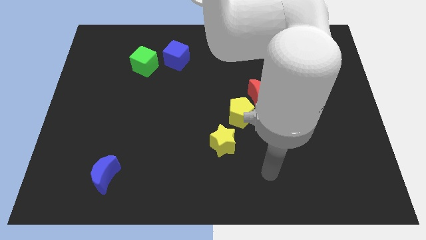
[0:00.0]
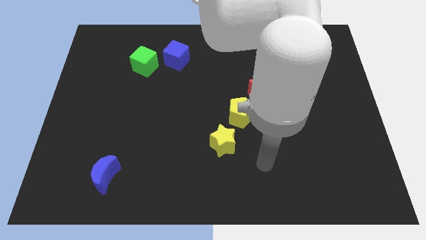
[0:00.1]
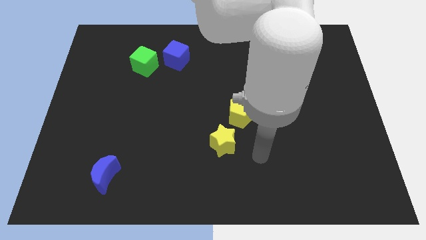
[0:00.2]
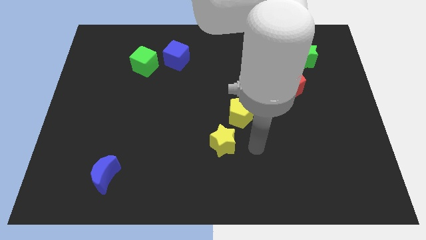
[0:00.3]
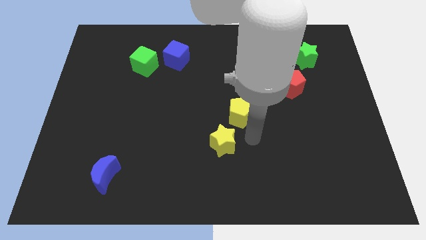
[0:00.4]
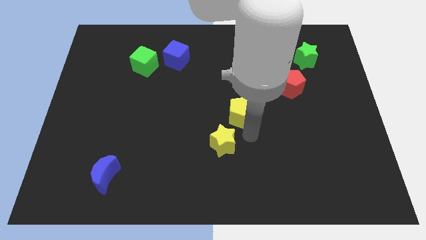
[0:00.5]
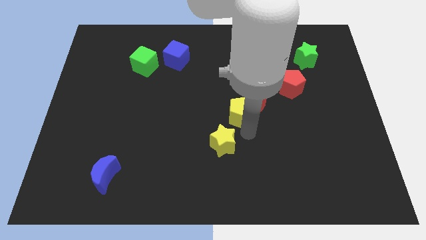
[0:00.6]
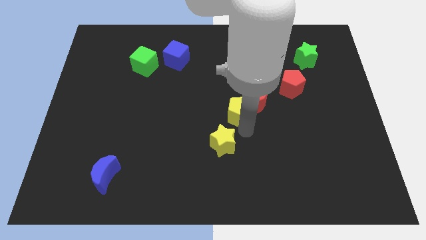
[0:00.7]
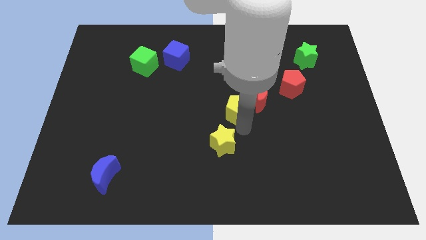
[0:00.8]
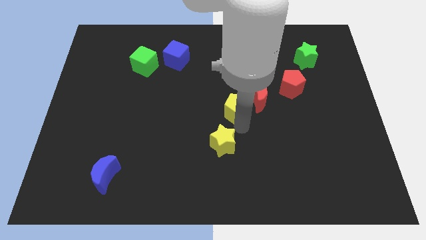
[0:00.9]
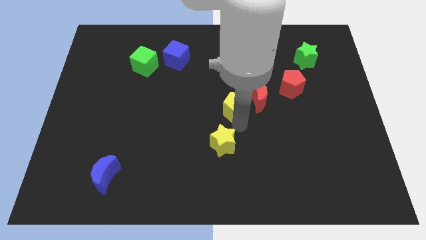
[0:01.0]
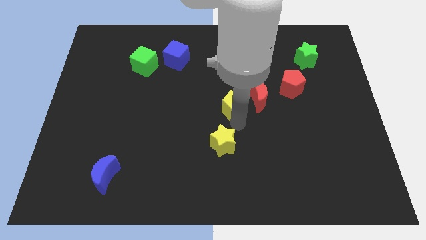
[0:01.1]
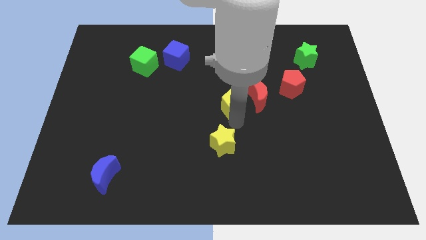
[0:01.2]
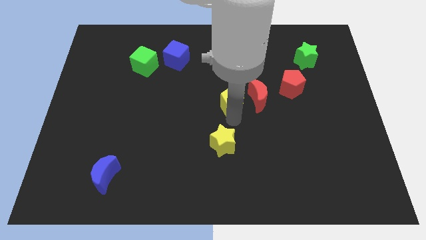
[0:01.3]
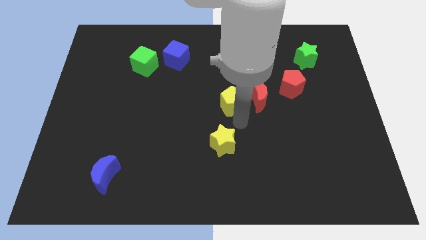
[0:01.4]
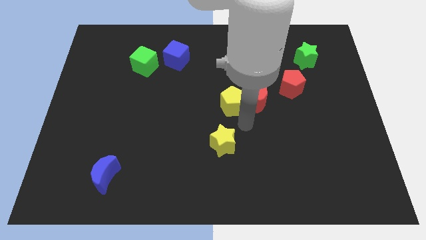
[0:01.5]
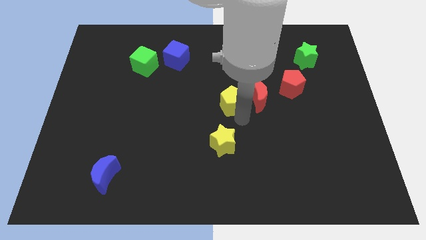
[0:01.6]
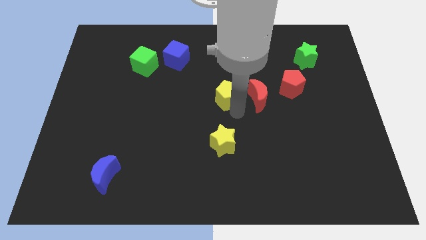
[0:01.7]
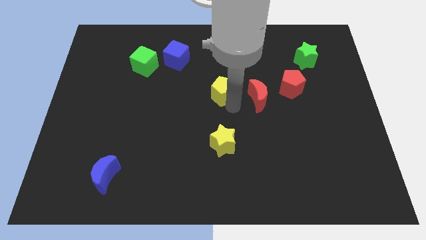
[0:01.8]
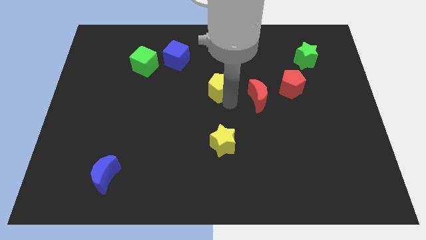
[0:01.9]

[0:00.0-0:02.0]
pull the yellow pentagon apart from the red moon and yellow star

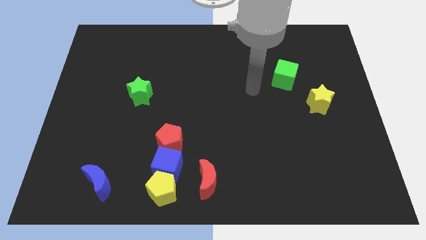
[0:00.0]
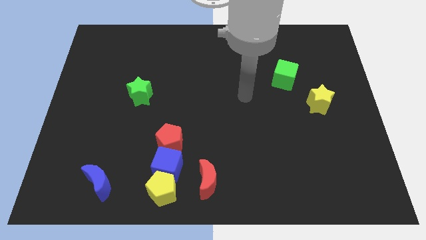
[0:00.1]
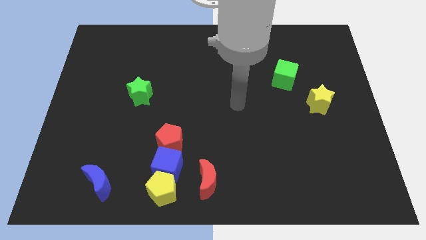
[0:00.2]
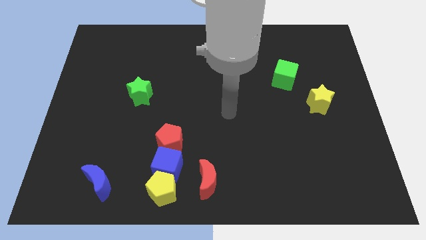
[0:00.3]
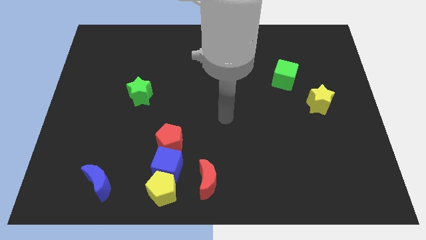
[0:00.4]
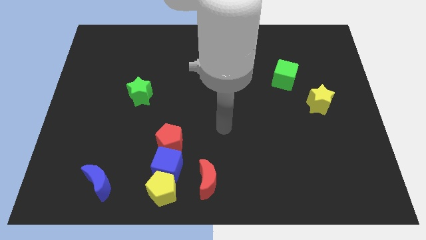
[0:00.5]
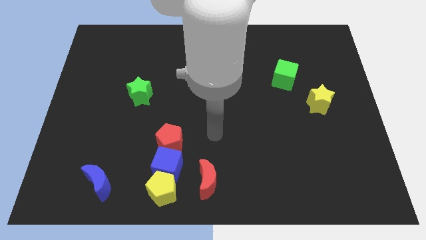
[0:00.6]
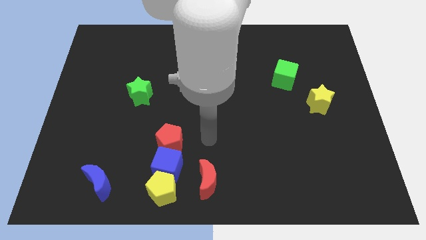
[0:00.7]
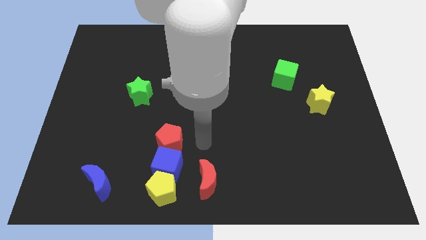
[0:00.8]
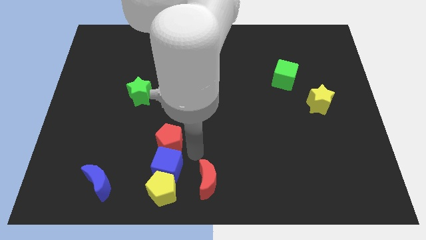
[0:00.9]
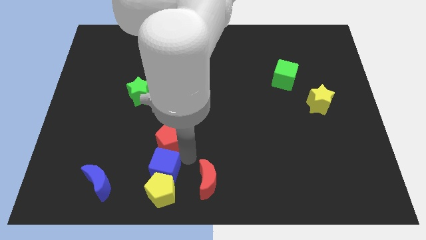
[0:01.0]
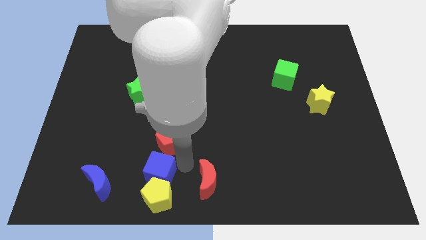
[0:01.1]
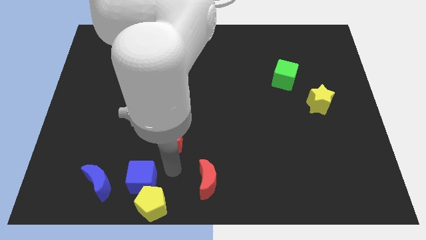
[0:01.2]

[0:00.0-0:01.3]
move the red pentagon away from the blue cube

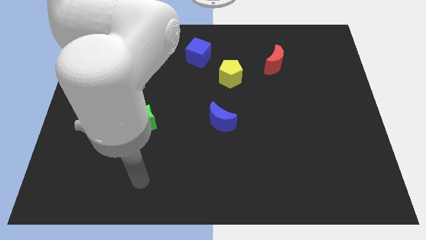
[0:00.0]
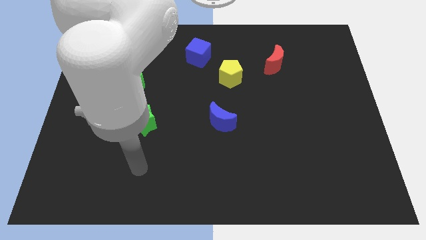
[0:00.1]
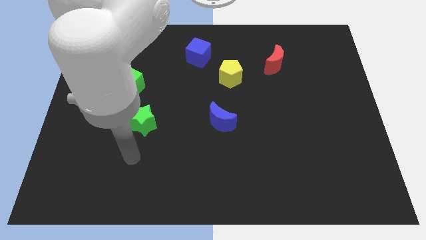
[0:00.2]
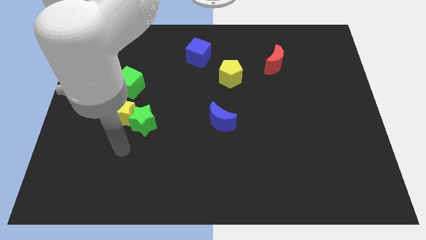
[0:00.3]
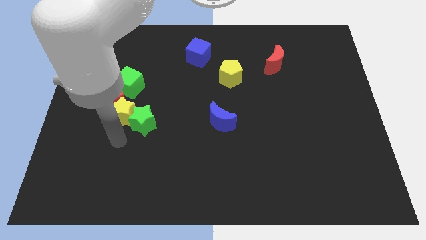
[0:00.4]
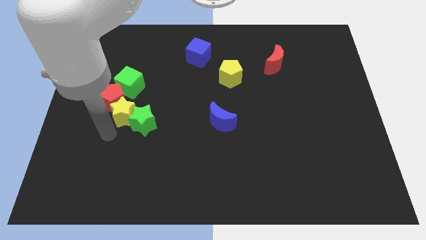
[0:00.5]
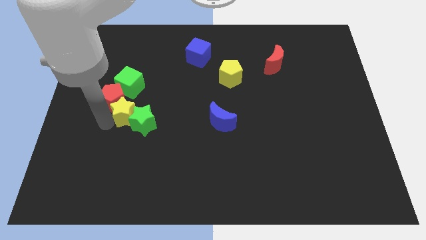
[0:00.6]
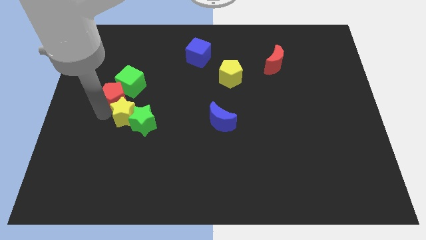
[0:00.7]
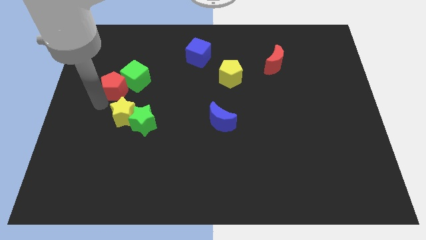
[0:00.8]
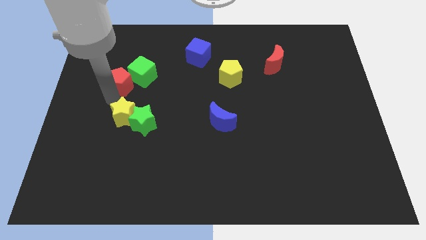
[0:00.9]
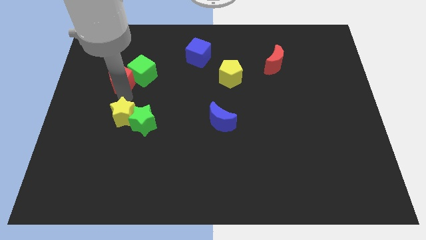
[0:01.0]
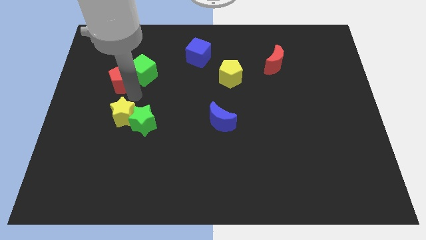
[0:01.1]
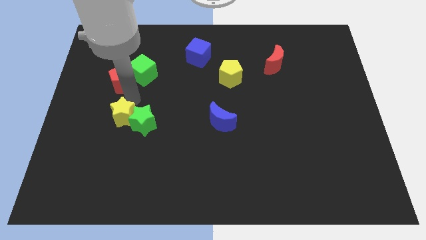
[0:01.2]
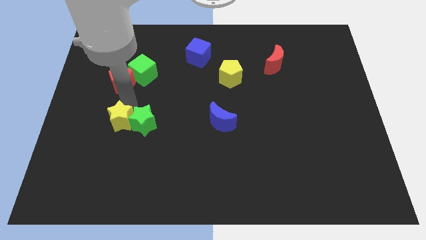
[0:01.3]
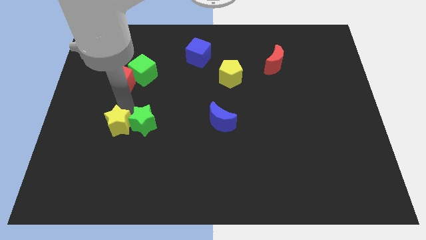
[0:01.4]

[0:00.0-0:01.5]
separate the yellow star from the group of blocks

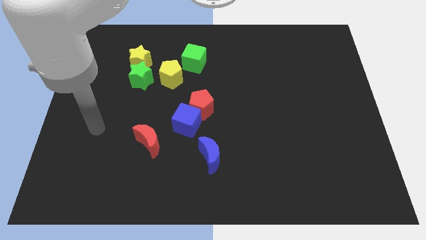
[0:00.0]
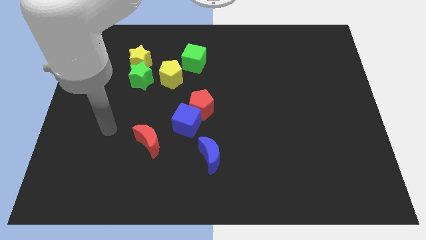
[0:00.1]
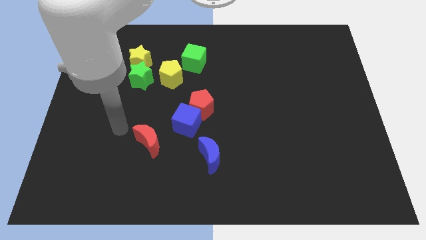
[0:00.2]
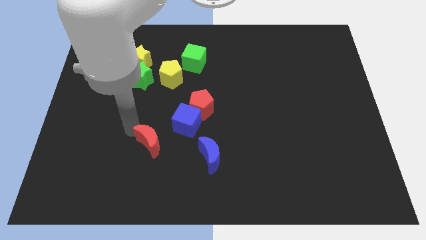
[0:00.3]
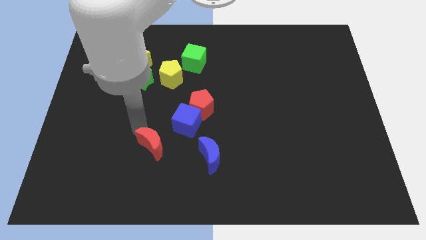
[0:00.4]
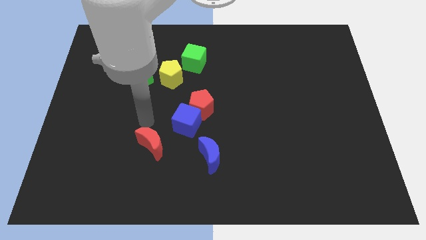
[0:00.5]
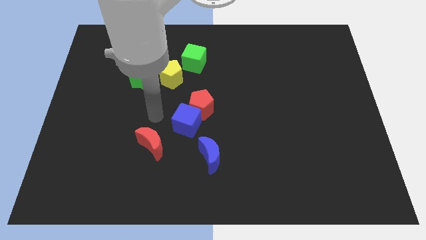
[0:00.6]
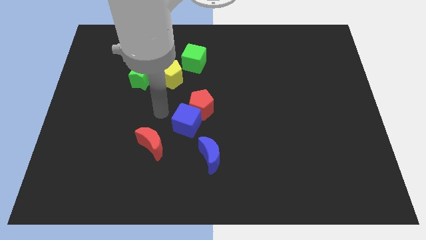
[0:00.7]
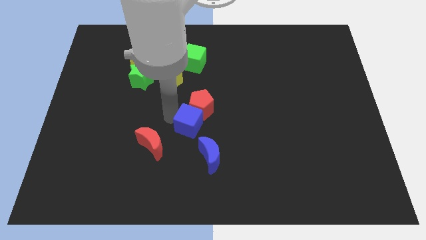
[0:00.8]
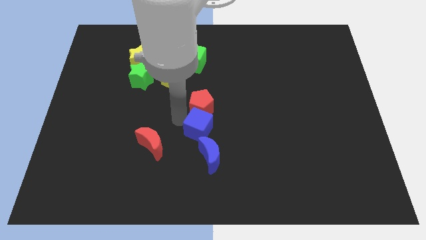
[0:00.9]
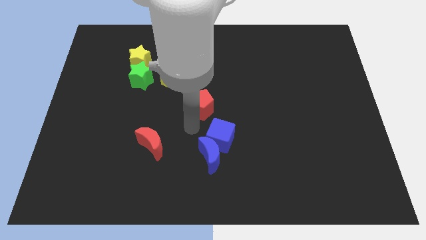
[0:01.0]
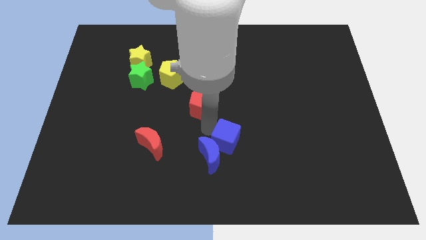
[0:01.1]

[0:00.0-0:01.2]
separate the red pentagon from the blue cube

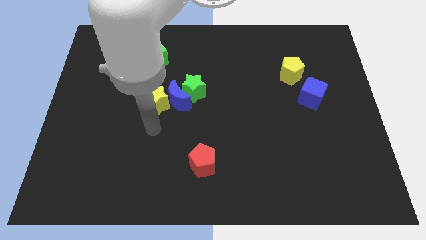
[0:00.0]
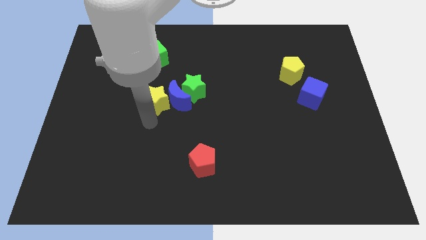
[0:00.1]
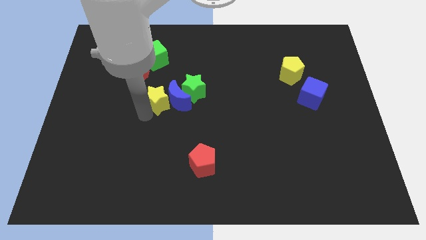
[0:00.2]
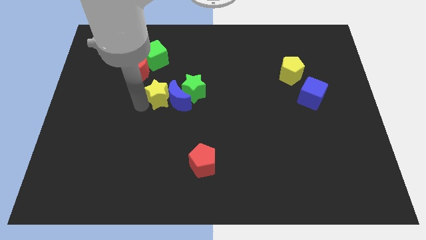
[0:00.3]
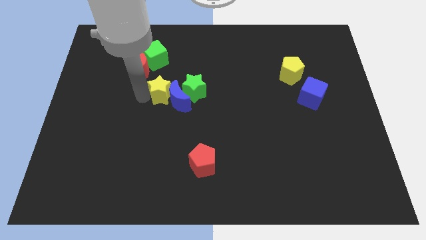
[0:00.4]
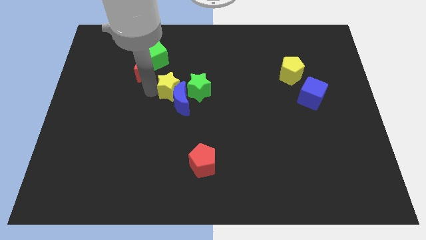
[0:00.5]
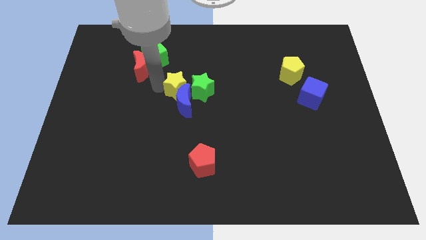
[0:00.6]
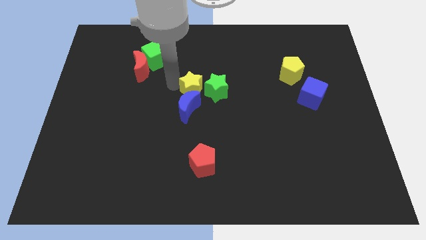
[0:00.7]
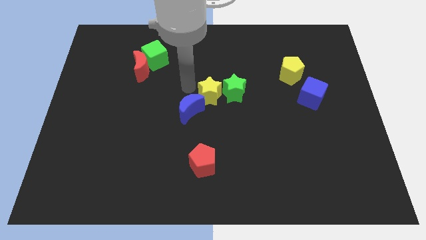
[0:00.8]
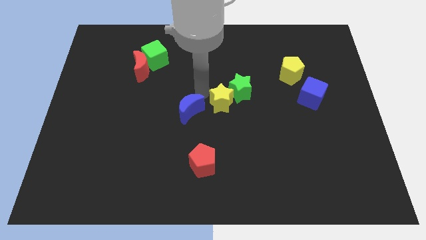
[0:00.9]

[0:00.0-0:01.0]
pull the blue moon apart from the yellow star and green star

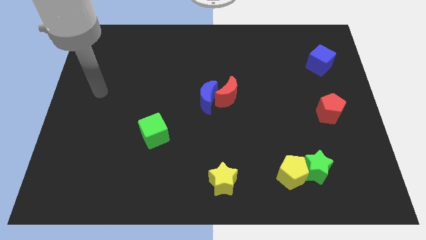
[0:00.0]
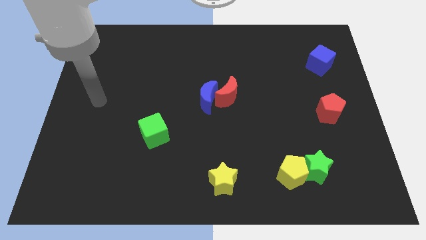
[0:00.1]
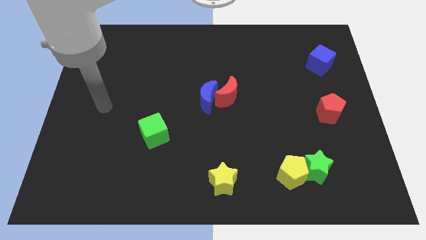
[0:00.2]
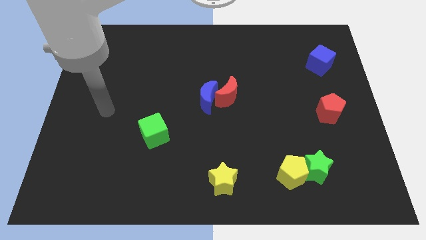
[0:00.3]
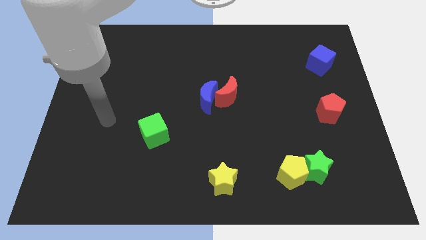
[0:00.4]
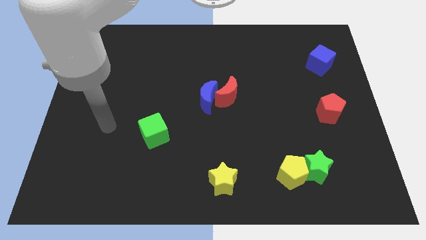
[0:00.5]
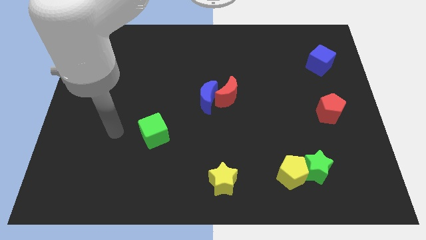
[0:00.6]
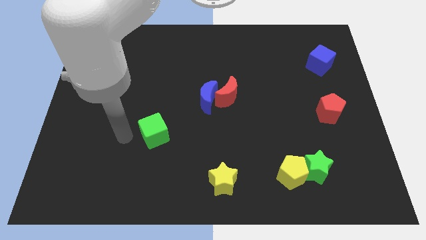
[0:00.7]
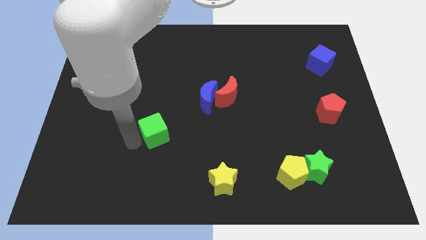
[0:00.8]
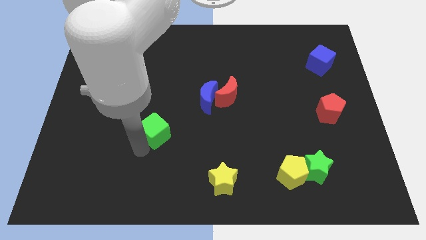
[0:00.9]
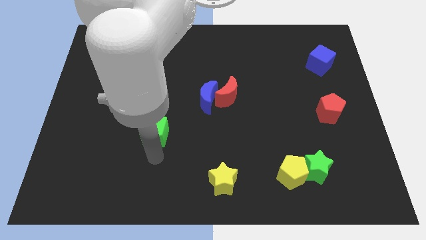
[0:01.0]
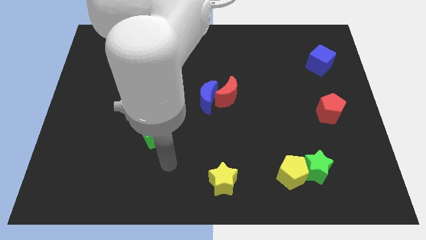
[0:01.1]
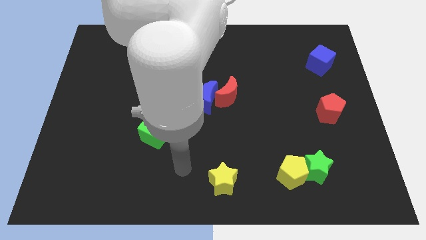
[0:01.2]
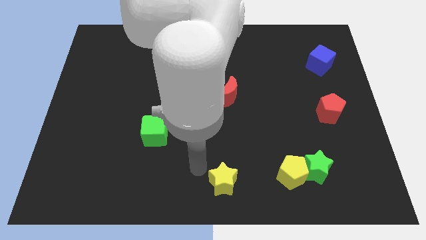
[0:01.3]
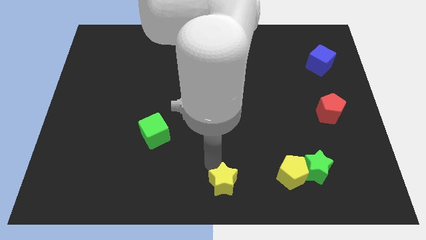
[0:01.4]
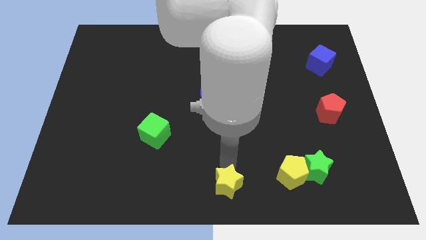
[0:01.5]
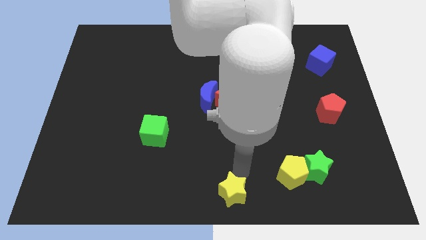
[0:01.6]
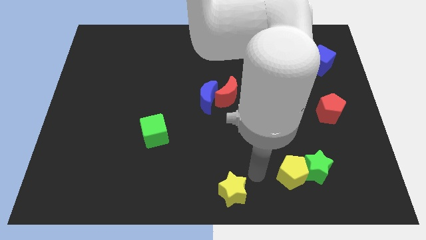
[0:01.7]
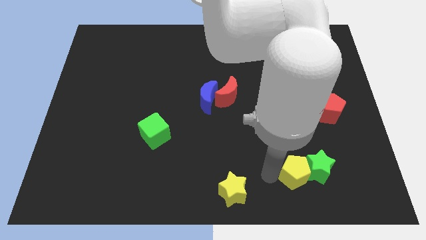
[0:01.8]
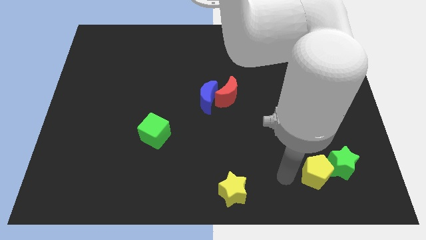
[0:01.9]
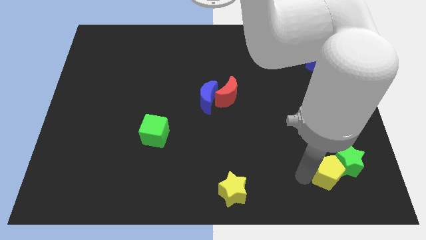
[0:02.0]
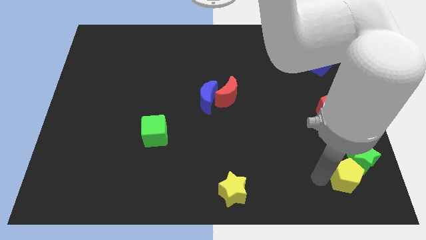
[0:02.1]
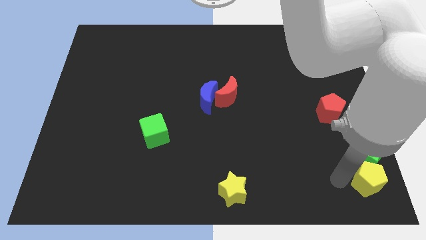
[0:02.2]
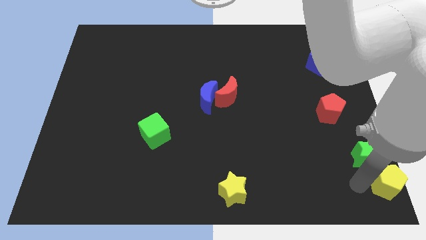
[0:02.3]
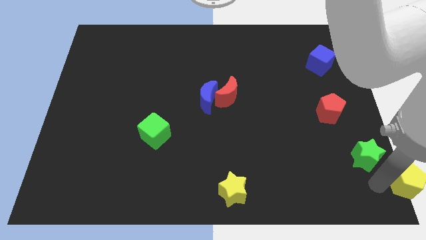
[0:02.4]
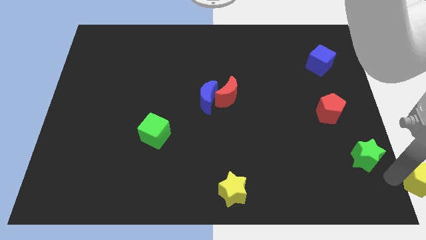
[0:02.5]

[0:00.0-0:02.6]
move the green star away from the yellow pentagon
